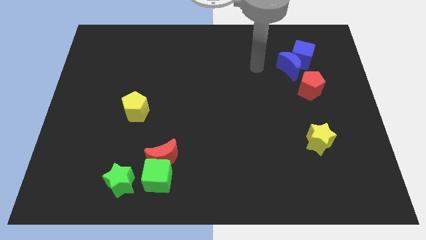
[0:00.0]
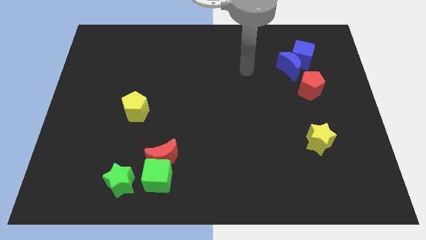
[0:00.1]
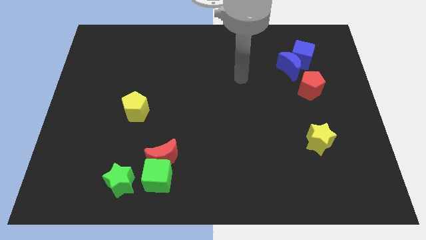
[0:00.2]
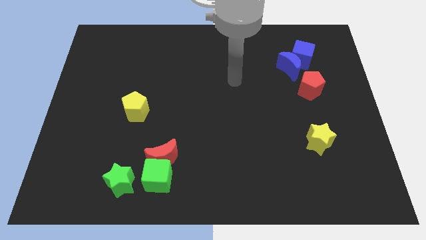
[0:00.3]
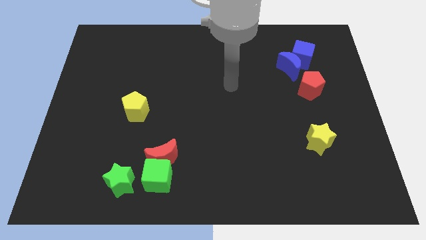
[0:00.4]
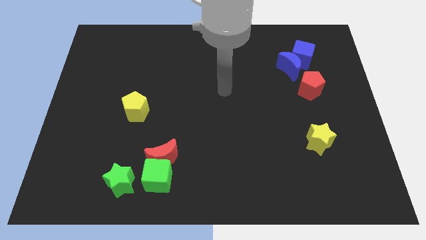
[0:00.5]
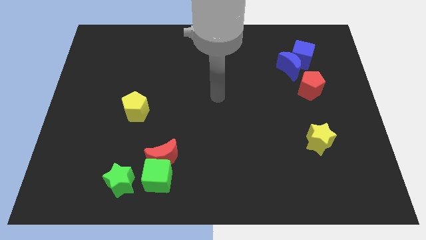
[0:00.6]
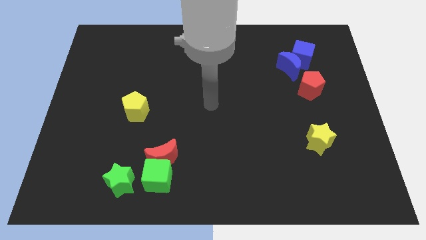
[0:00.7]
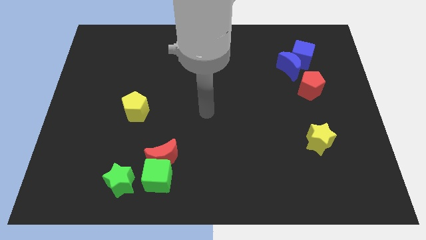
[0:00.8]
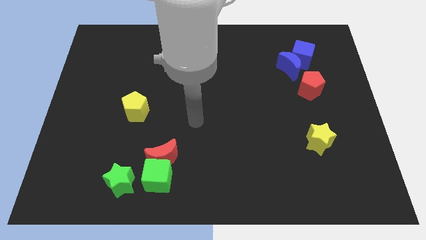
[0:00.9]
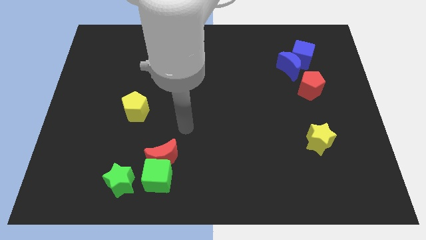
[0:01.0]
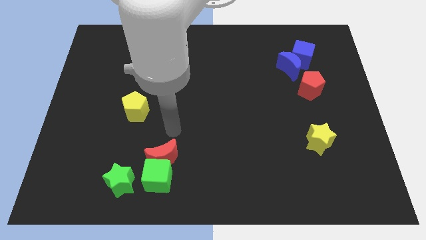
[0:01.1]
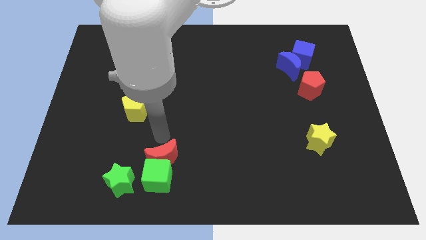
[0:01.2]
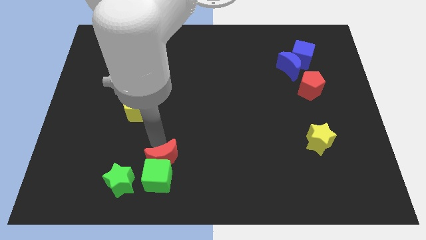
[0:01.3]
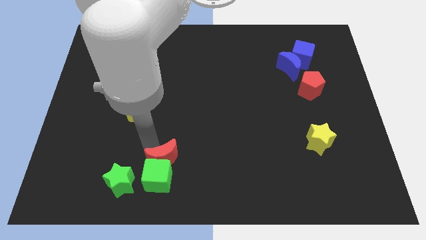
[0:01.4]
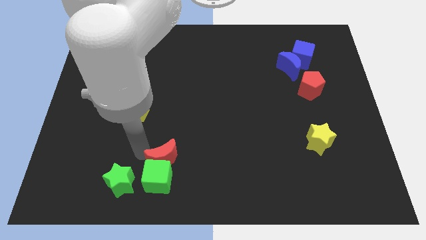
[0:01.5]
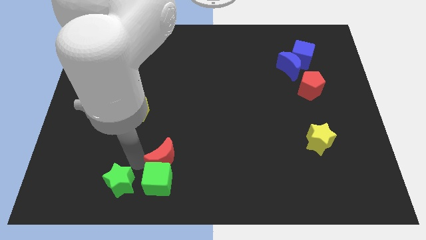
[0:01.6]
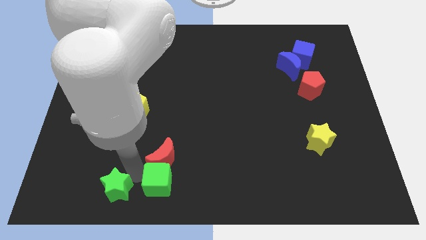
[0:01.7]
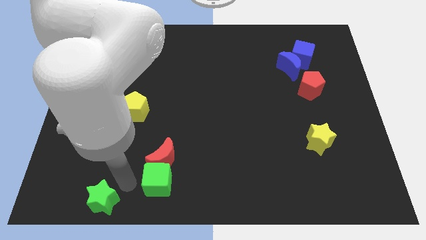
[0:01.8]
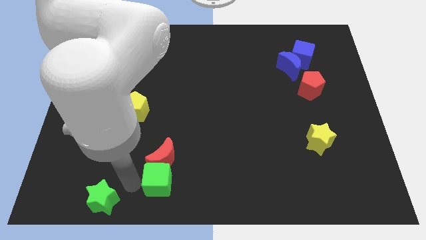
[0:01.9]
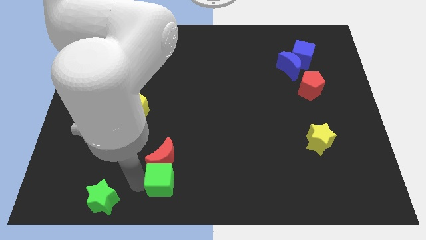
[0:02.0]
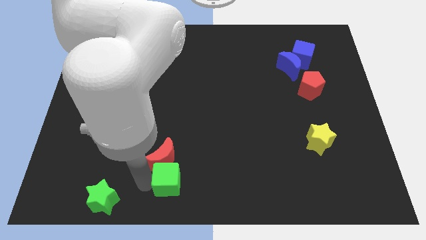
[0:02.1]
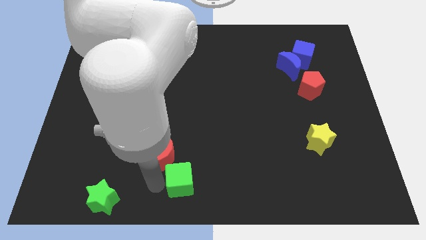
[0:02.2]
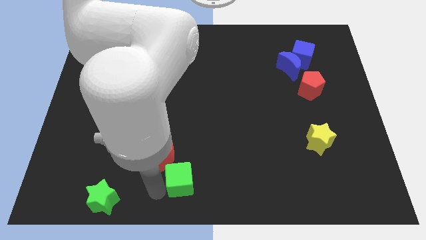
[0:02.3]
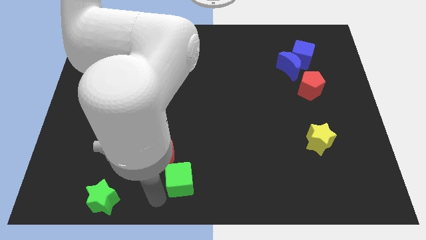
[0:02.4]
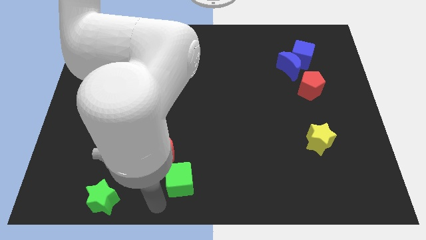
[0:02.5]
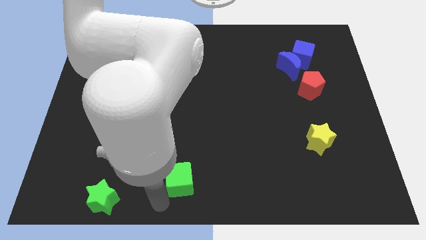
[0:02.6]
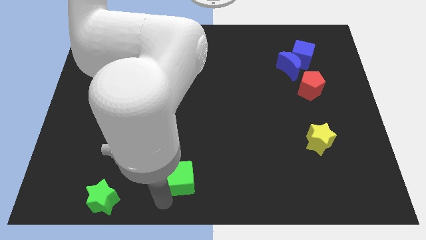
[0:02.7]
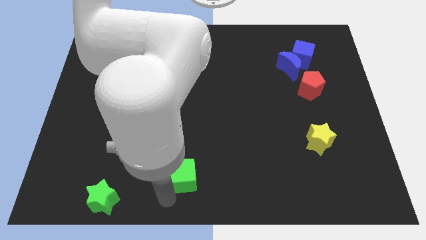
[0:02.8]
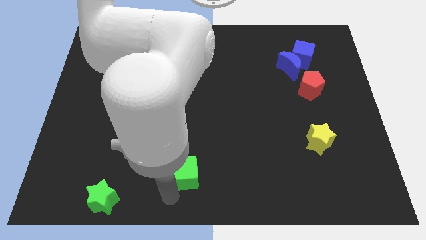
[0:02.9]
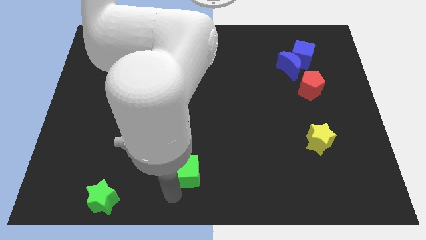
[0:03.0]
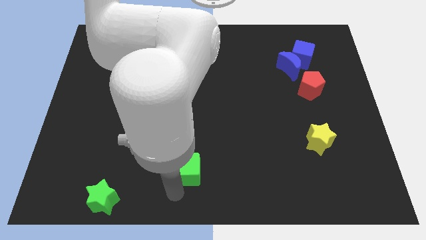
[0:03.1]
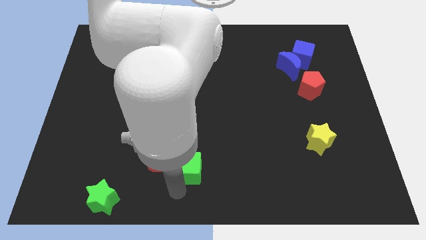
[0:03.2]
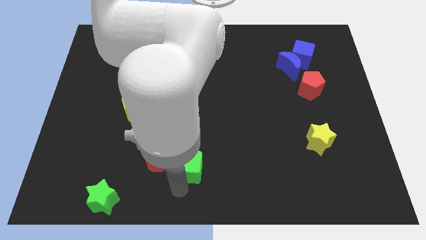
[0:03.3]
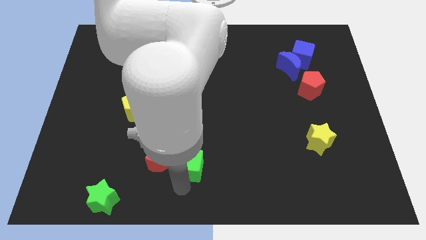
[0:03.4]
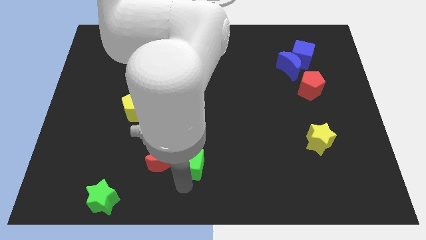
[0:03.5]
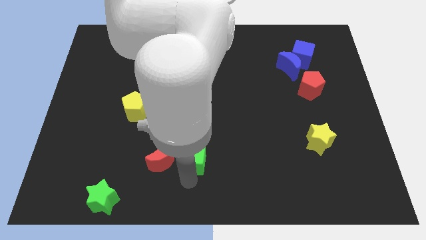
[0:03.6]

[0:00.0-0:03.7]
move the green cube somewhat up and right diagonally

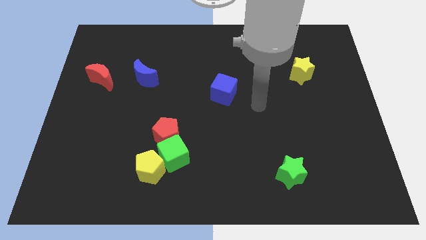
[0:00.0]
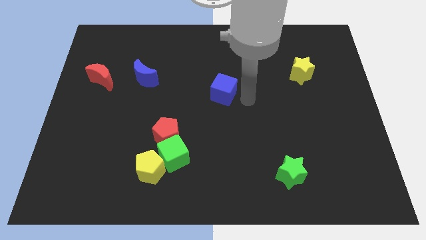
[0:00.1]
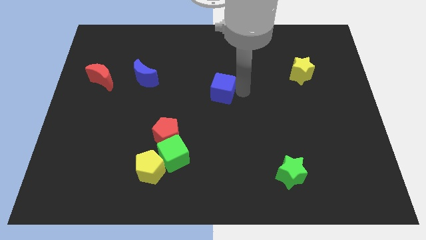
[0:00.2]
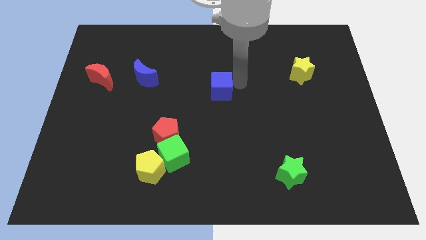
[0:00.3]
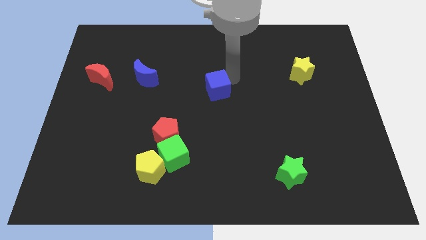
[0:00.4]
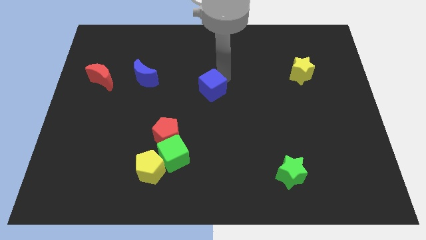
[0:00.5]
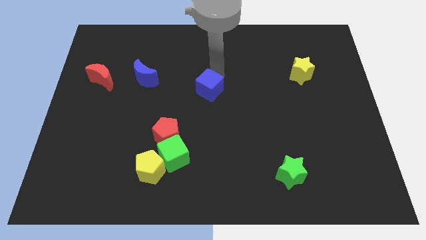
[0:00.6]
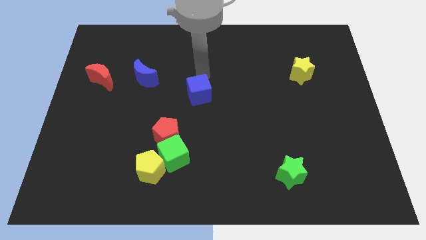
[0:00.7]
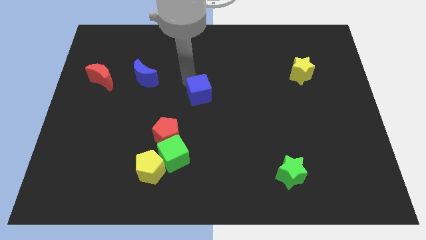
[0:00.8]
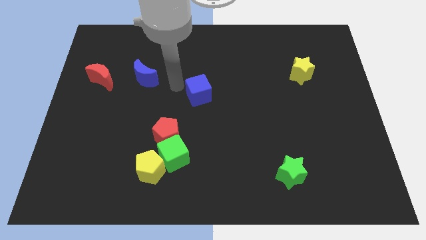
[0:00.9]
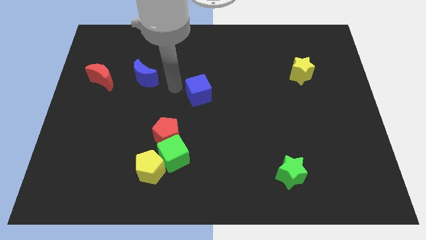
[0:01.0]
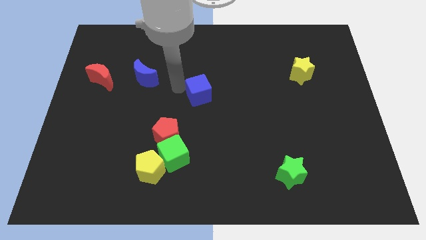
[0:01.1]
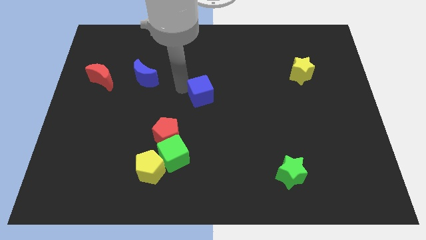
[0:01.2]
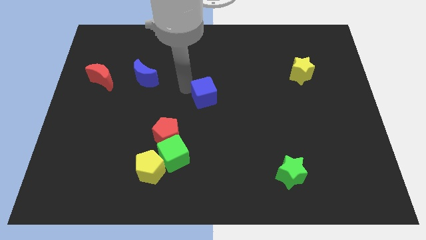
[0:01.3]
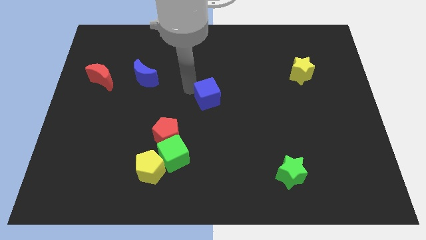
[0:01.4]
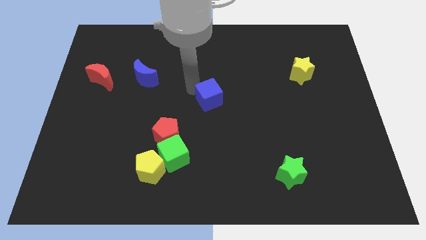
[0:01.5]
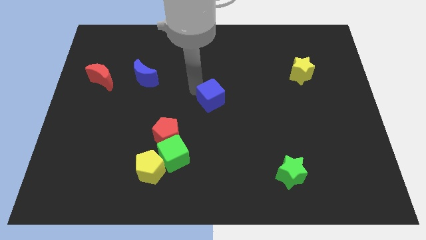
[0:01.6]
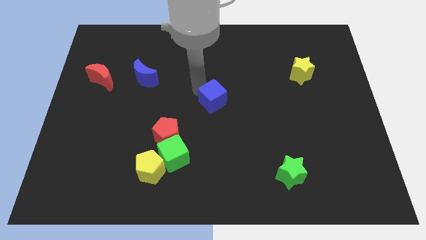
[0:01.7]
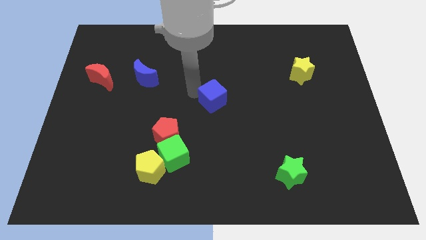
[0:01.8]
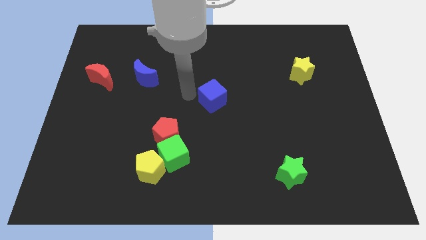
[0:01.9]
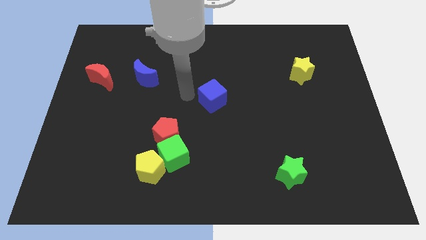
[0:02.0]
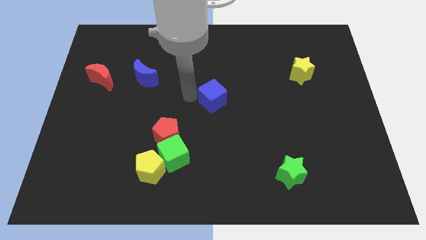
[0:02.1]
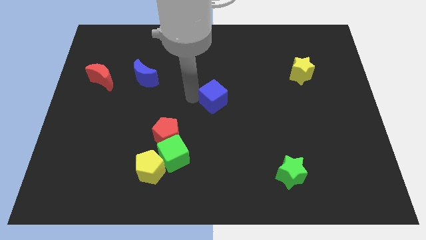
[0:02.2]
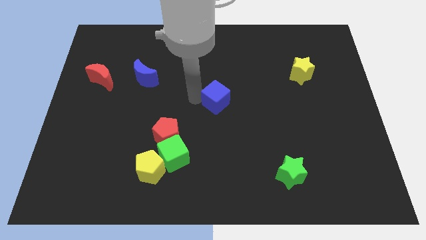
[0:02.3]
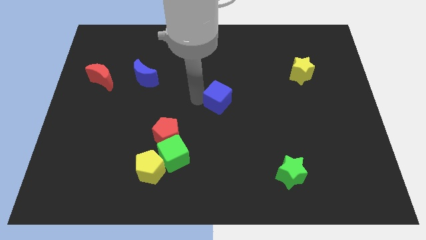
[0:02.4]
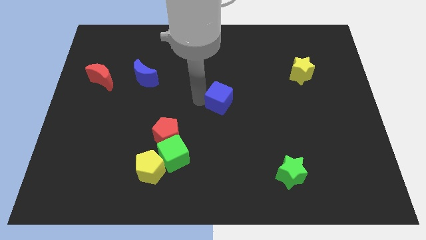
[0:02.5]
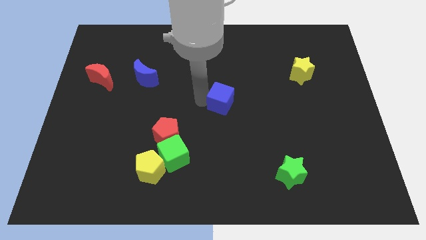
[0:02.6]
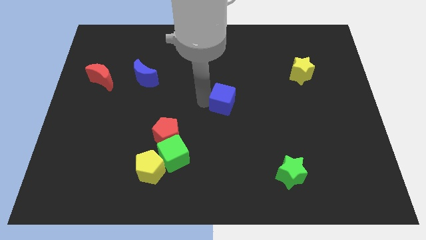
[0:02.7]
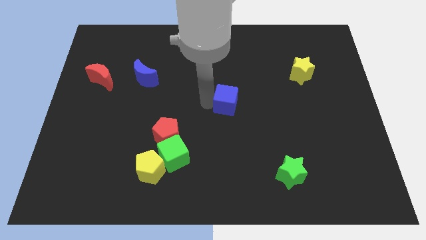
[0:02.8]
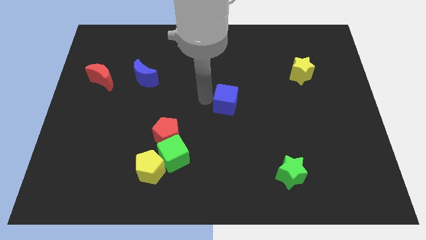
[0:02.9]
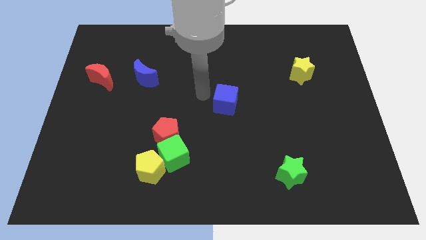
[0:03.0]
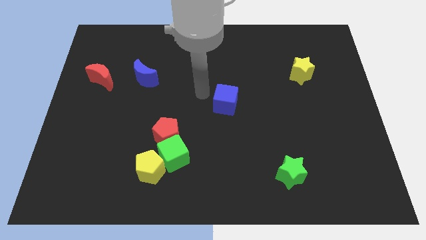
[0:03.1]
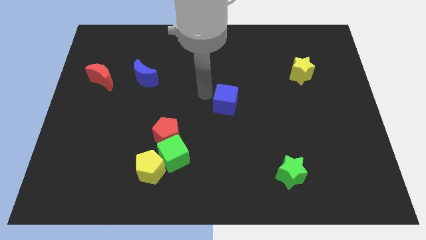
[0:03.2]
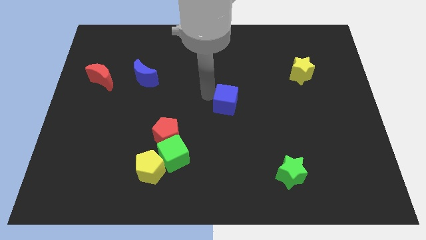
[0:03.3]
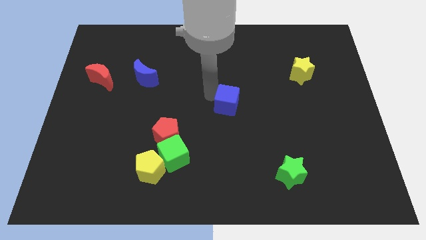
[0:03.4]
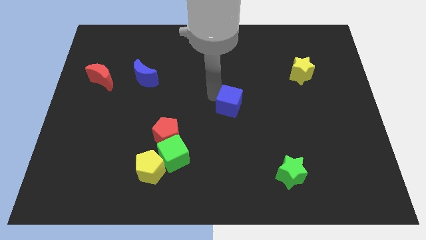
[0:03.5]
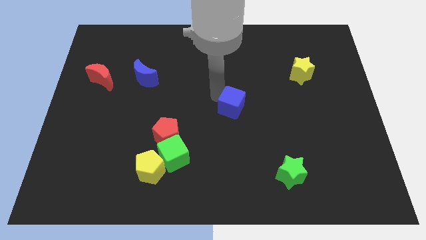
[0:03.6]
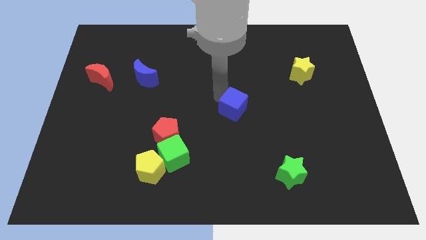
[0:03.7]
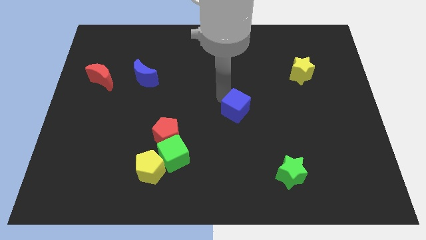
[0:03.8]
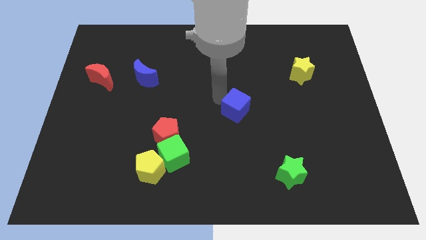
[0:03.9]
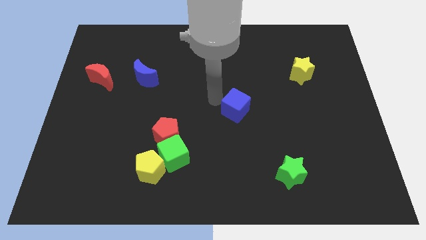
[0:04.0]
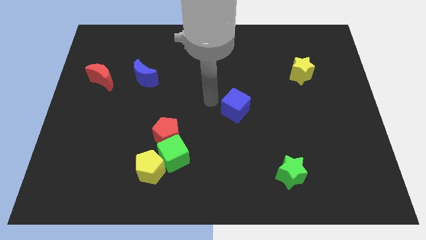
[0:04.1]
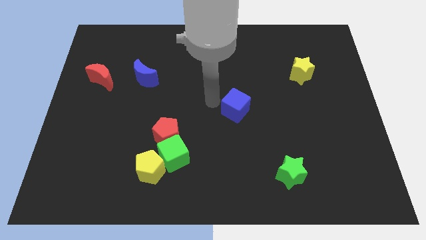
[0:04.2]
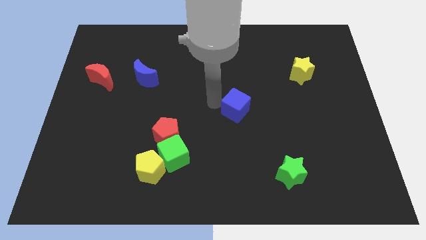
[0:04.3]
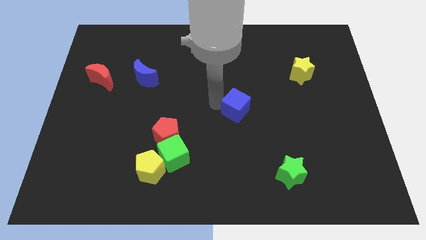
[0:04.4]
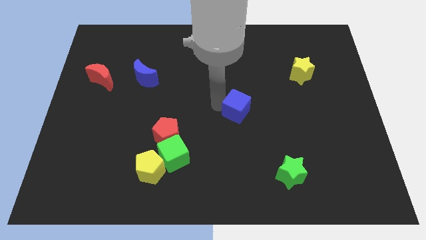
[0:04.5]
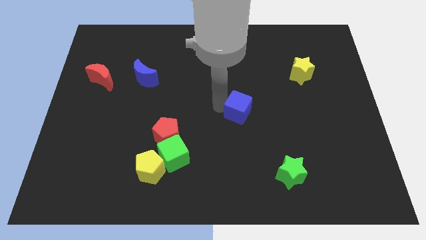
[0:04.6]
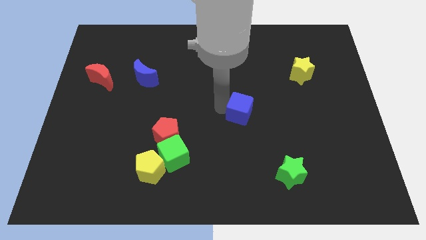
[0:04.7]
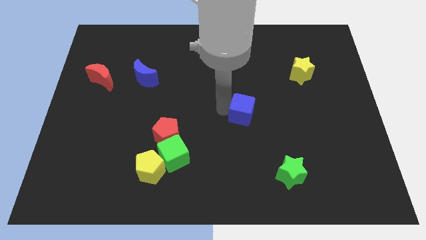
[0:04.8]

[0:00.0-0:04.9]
push the blue cube diagonally down and right slightly
